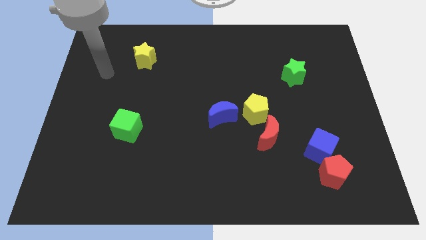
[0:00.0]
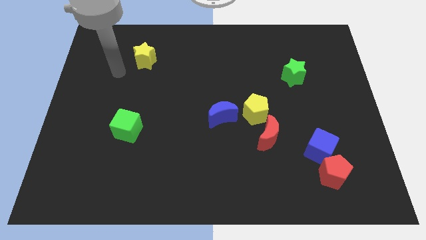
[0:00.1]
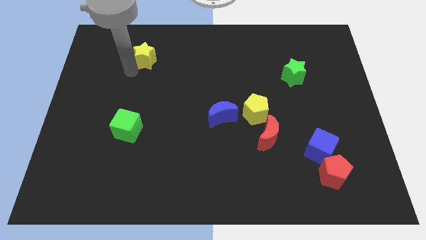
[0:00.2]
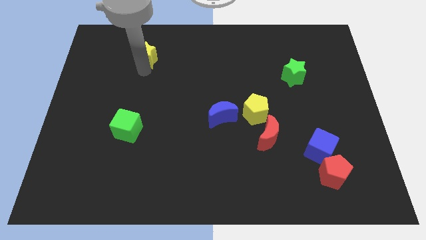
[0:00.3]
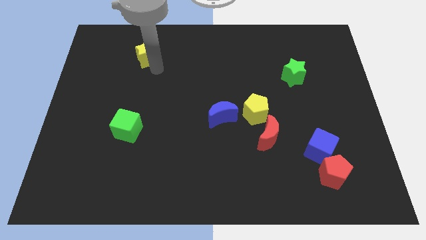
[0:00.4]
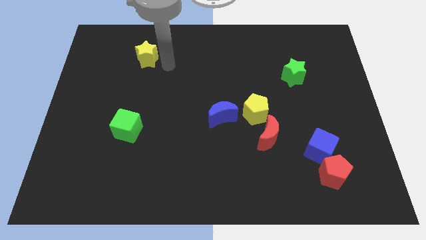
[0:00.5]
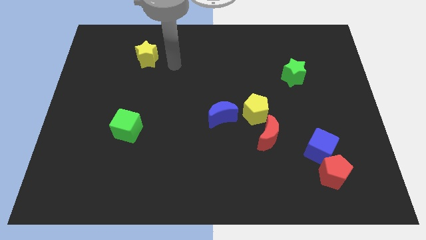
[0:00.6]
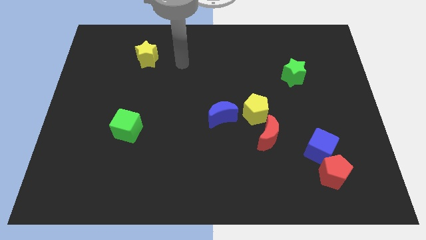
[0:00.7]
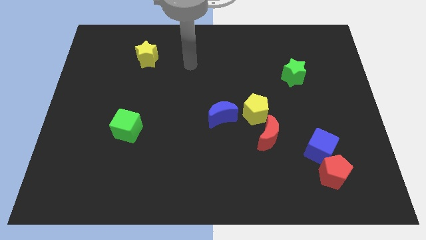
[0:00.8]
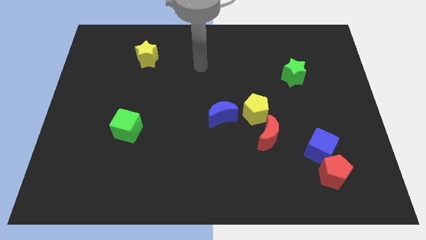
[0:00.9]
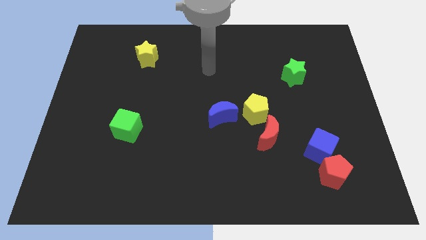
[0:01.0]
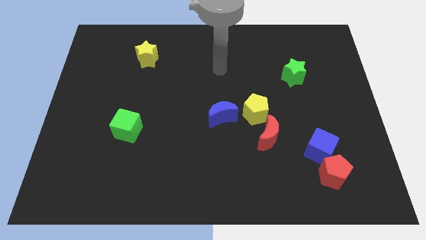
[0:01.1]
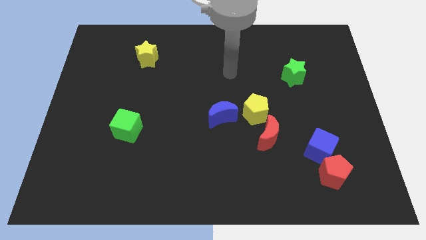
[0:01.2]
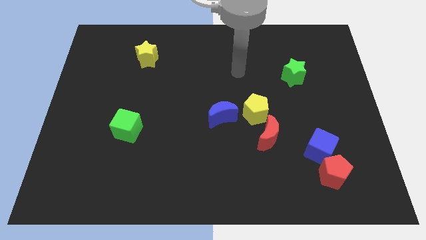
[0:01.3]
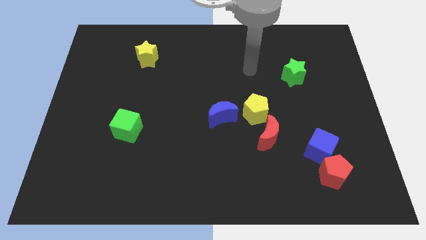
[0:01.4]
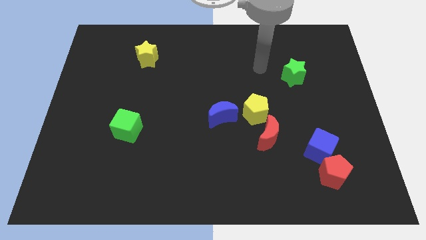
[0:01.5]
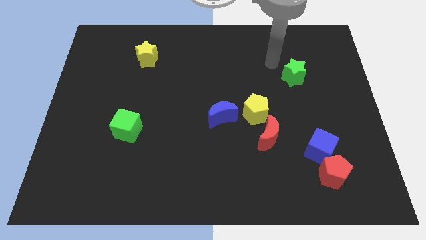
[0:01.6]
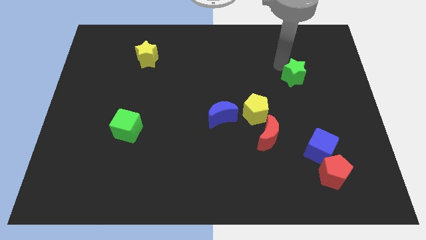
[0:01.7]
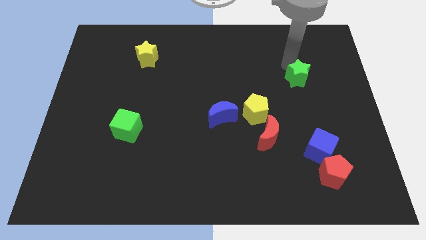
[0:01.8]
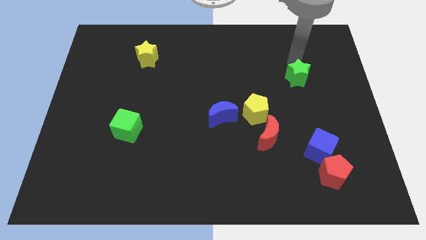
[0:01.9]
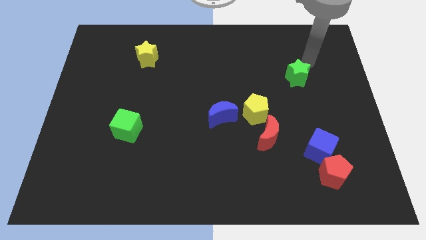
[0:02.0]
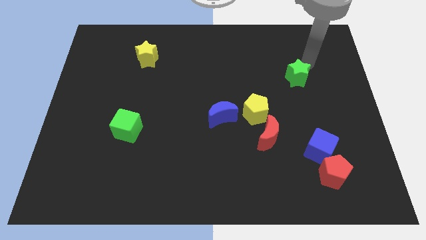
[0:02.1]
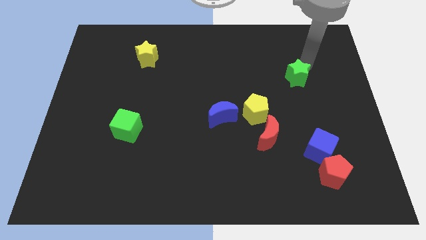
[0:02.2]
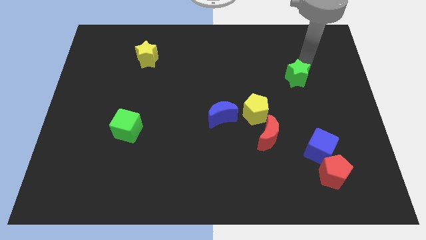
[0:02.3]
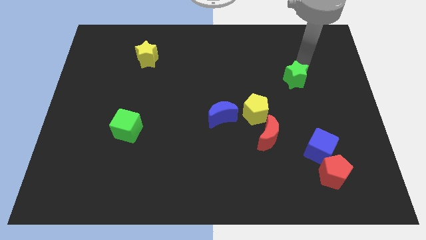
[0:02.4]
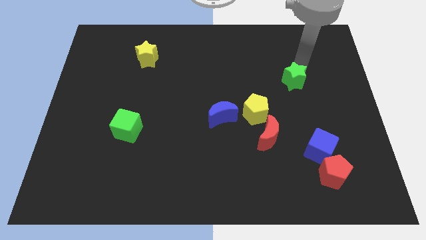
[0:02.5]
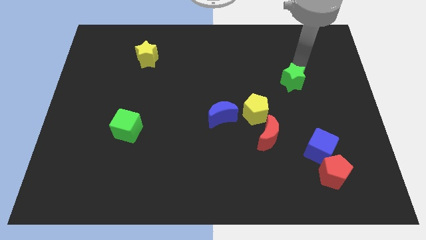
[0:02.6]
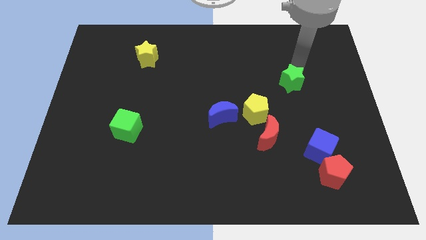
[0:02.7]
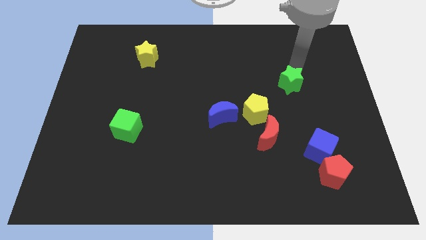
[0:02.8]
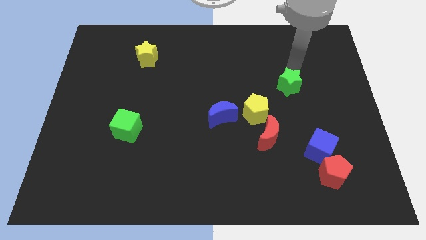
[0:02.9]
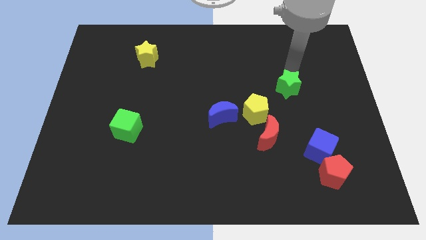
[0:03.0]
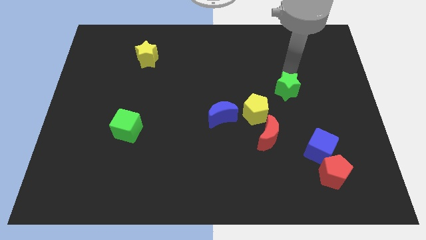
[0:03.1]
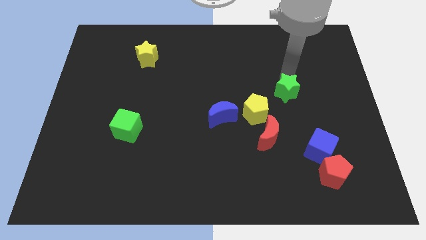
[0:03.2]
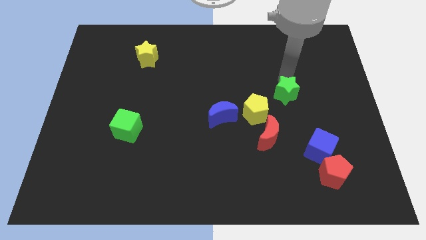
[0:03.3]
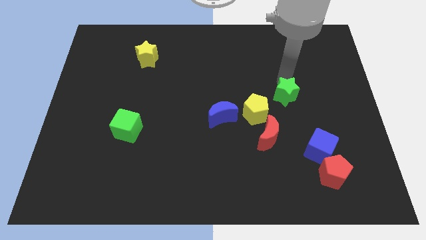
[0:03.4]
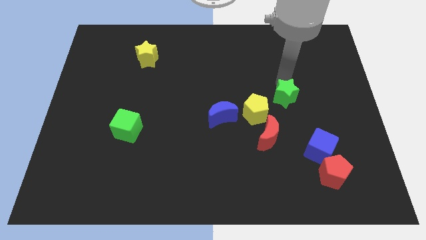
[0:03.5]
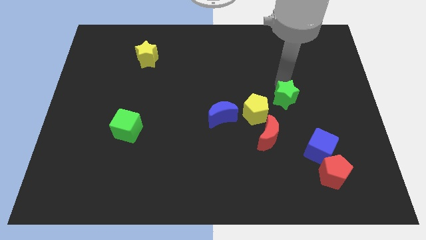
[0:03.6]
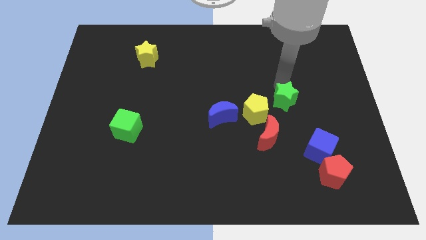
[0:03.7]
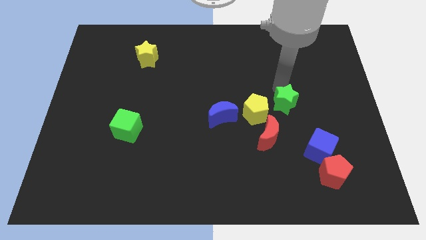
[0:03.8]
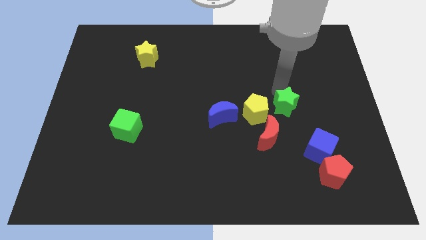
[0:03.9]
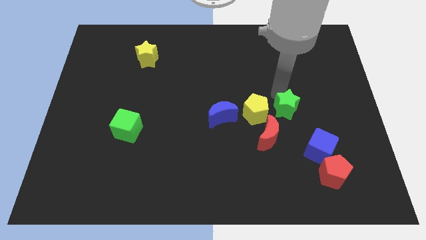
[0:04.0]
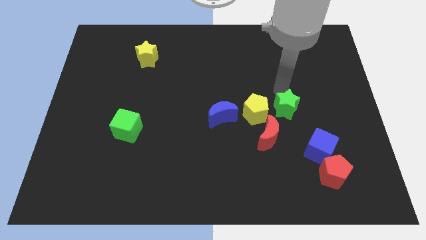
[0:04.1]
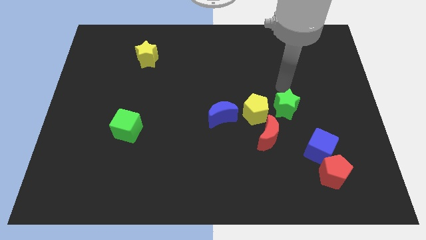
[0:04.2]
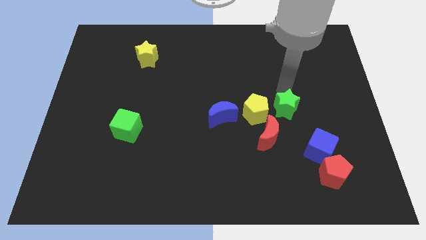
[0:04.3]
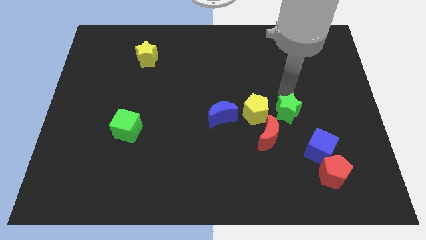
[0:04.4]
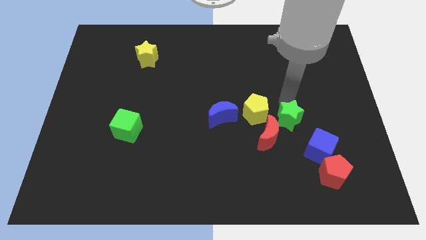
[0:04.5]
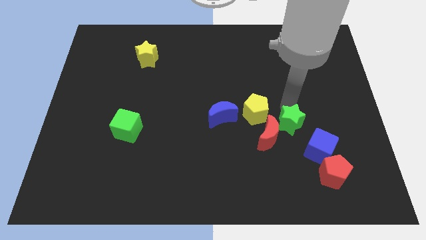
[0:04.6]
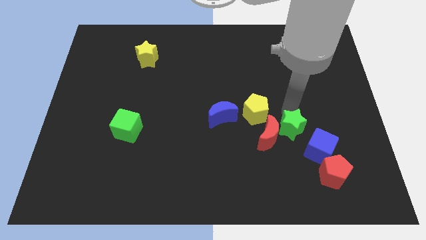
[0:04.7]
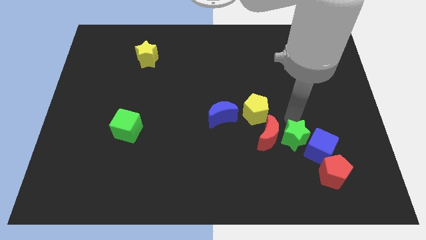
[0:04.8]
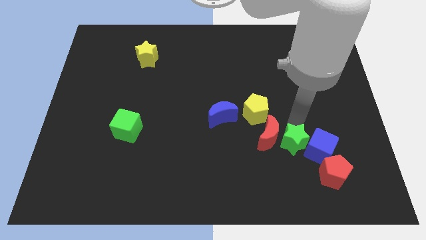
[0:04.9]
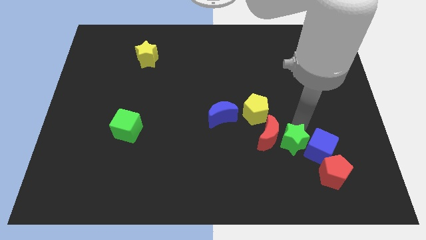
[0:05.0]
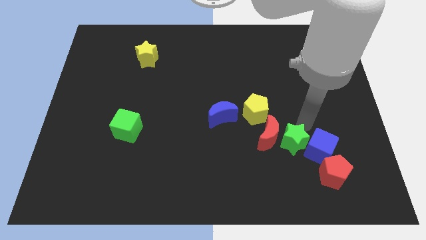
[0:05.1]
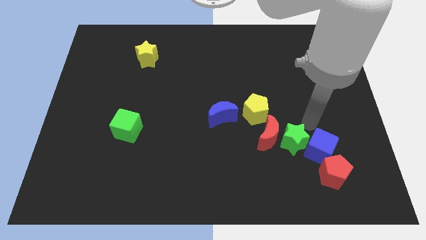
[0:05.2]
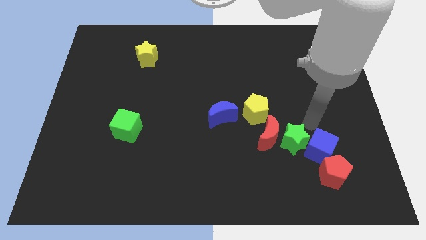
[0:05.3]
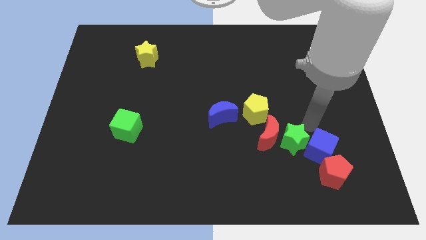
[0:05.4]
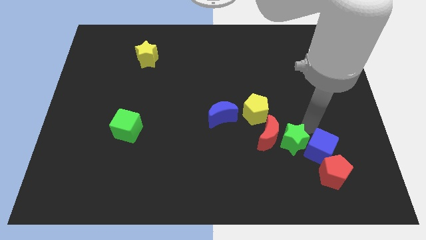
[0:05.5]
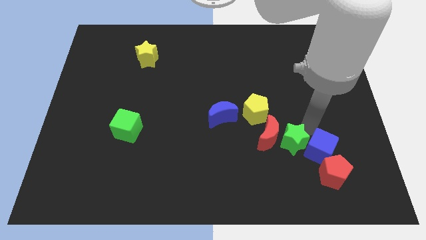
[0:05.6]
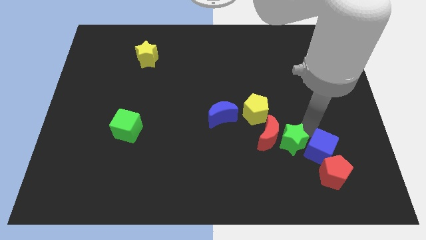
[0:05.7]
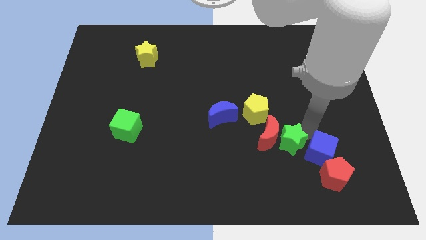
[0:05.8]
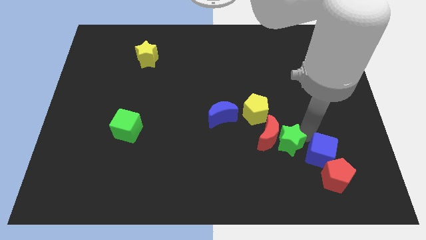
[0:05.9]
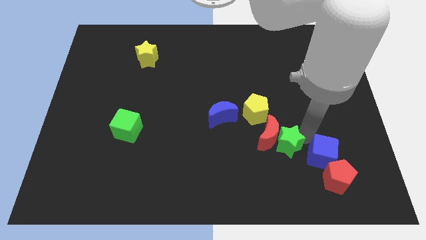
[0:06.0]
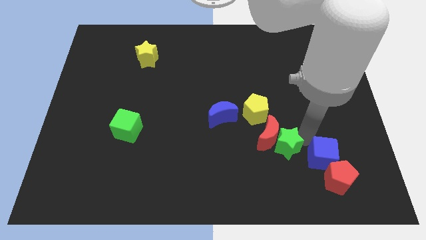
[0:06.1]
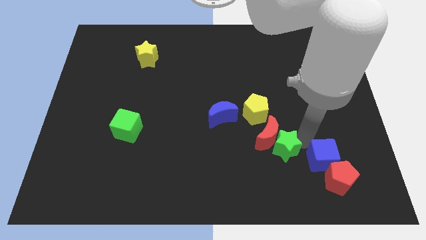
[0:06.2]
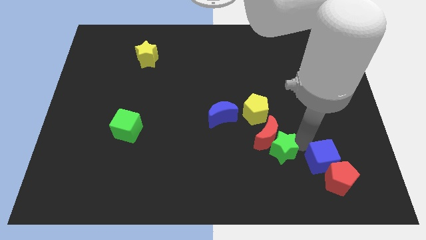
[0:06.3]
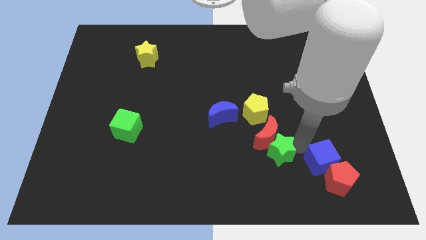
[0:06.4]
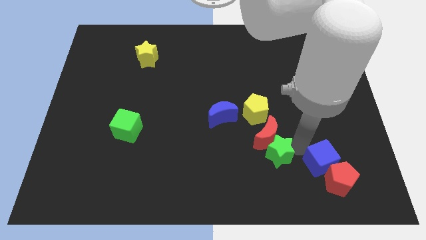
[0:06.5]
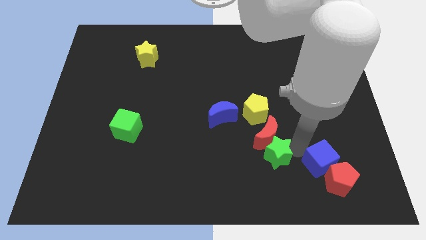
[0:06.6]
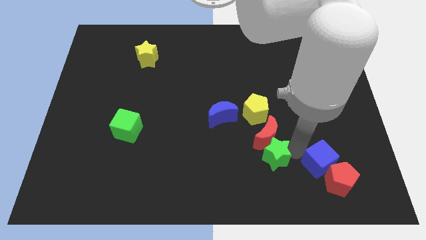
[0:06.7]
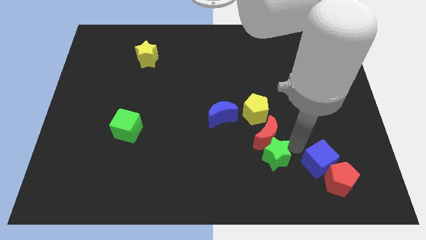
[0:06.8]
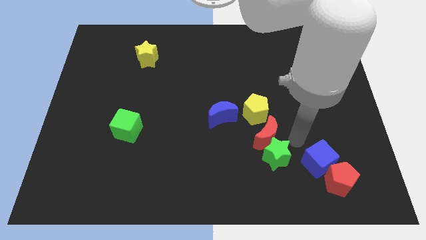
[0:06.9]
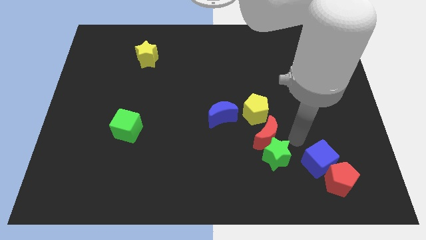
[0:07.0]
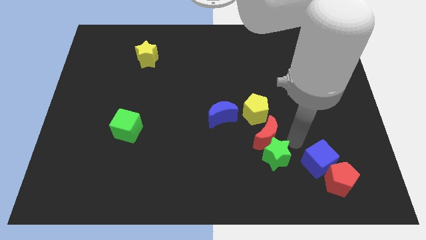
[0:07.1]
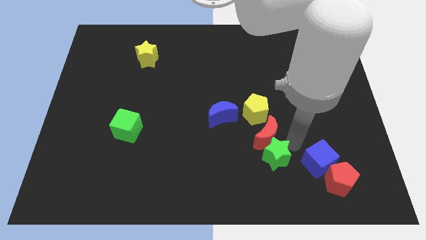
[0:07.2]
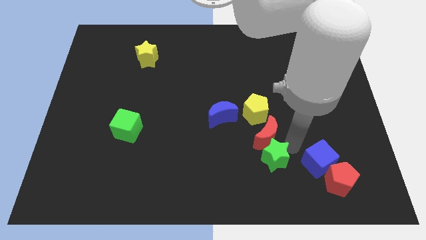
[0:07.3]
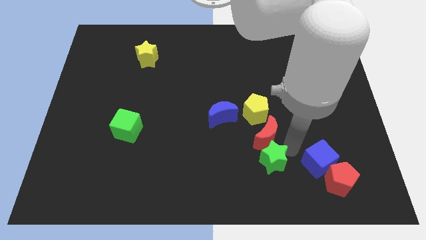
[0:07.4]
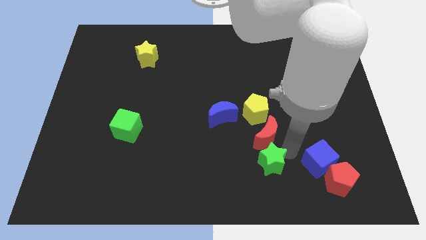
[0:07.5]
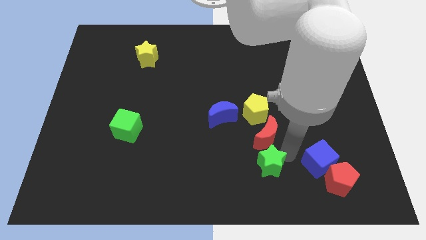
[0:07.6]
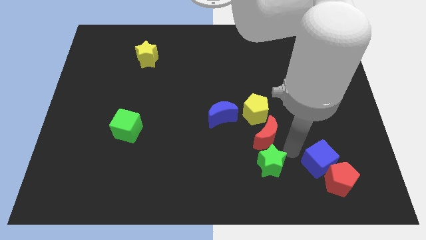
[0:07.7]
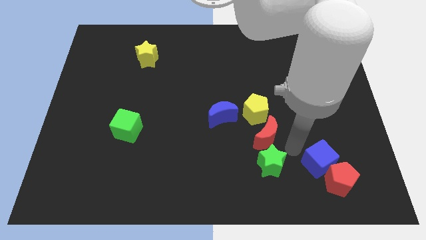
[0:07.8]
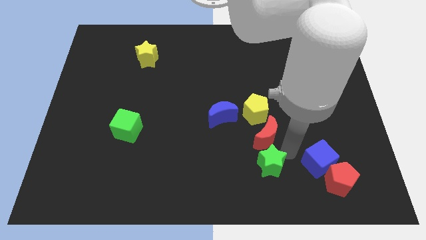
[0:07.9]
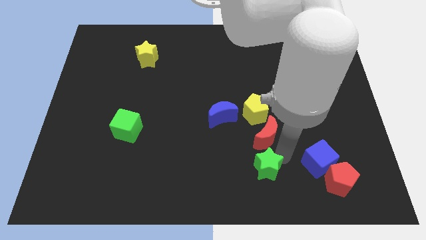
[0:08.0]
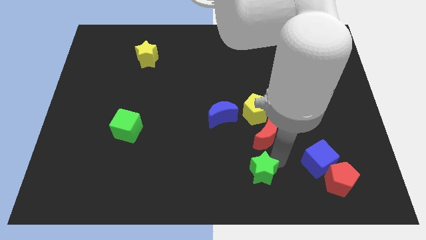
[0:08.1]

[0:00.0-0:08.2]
put the green star to the bottom side
